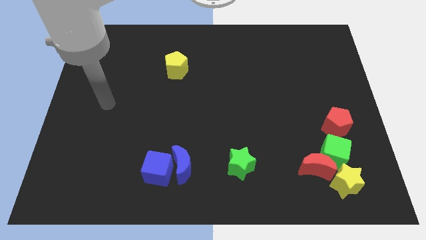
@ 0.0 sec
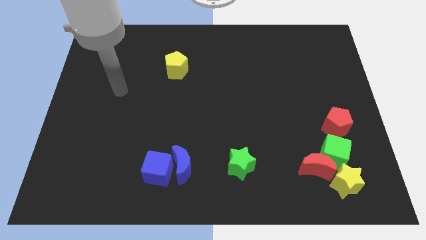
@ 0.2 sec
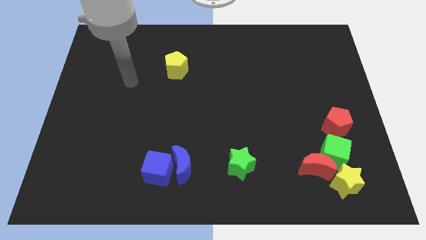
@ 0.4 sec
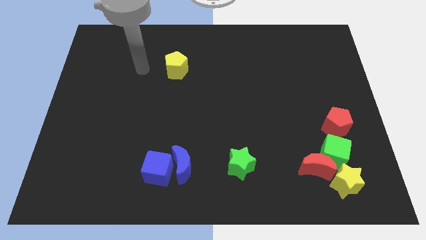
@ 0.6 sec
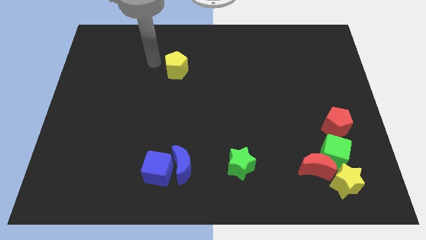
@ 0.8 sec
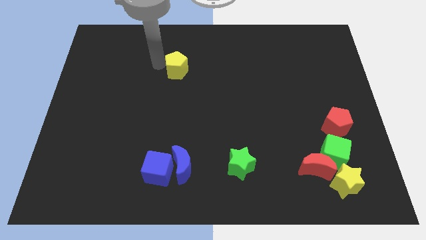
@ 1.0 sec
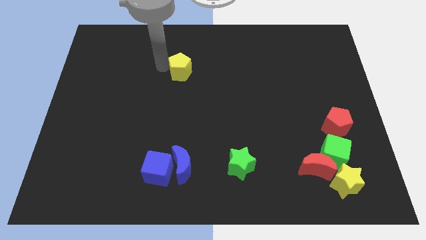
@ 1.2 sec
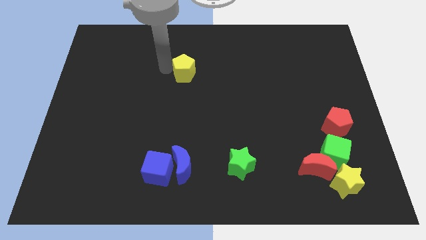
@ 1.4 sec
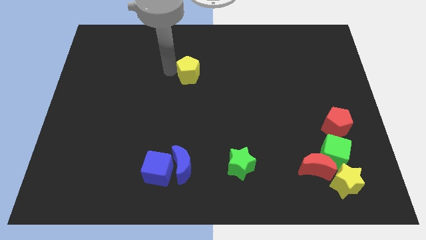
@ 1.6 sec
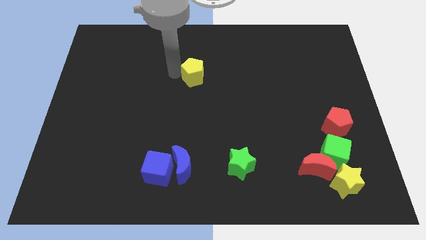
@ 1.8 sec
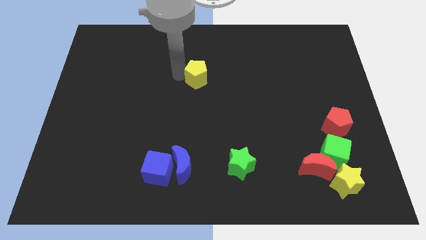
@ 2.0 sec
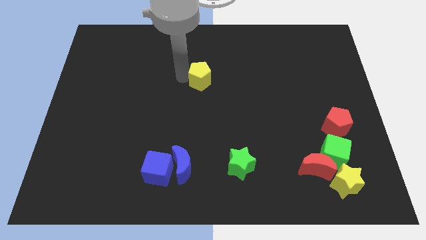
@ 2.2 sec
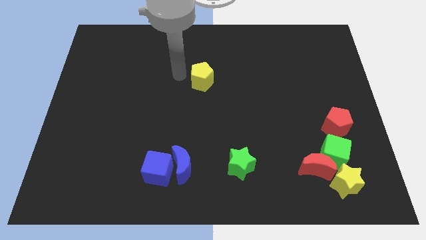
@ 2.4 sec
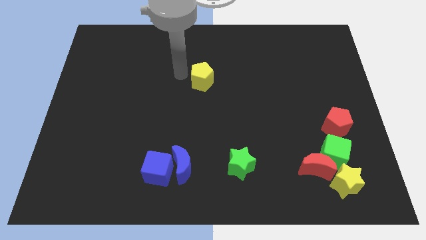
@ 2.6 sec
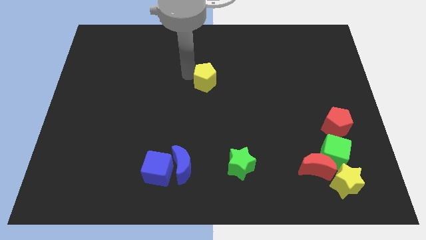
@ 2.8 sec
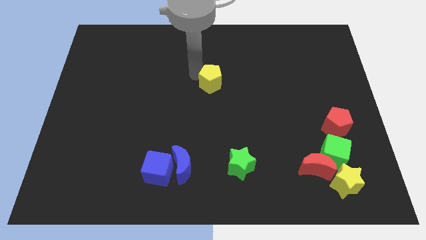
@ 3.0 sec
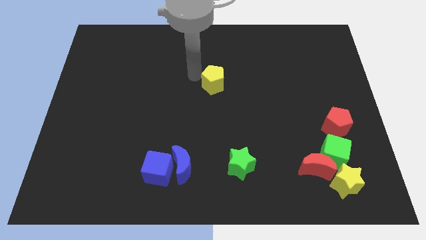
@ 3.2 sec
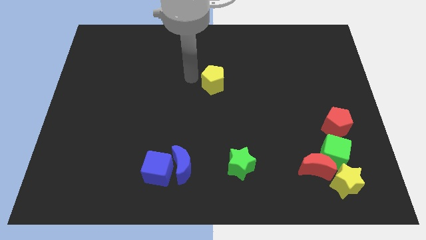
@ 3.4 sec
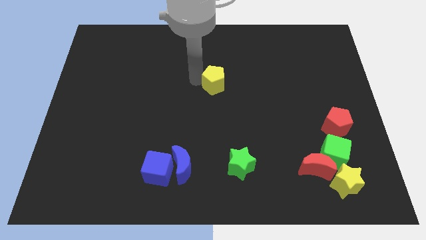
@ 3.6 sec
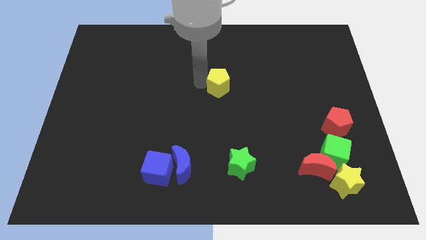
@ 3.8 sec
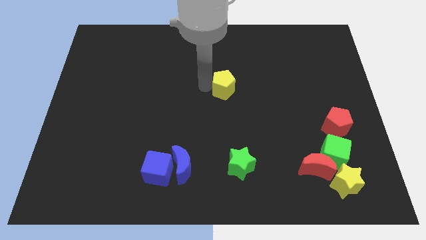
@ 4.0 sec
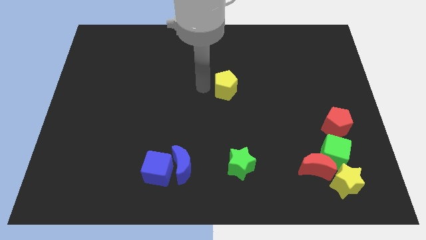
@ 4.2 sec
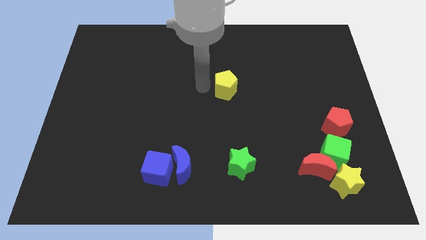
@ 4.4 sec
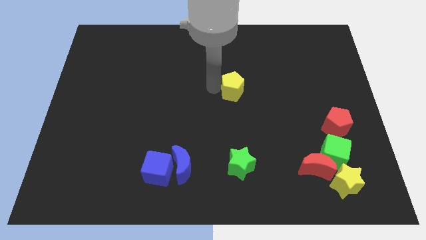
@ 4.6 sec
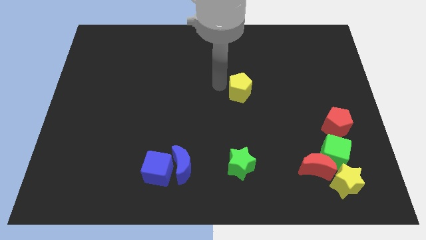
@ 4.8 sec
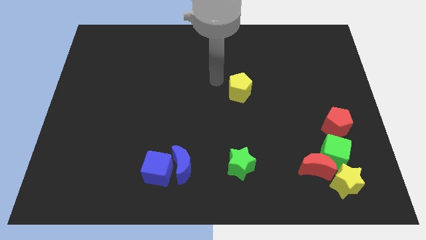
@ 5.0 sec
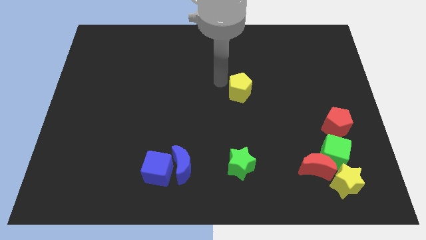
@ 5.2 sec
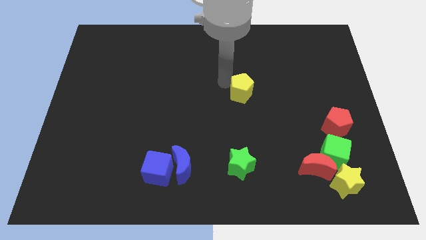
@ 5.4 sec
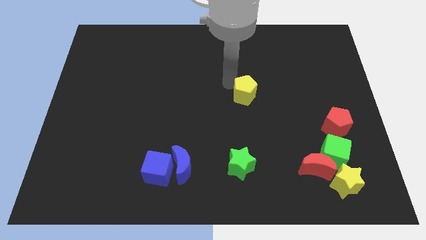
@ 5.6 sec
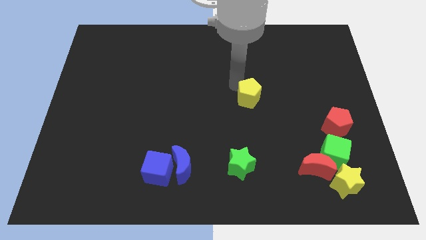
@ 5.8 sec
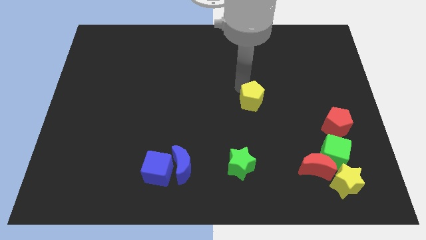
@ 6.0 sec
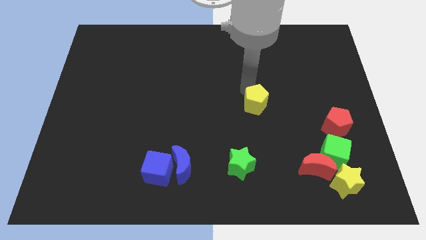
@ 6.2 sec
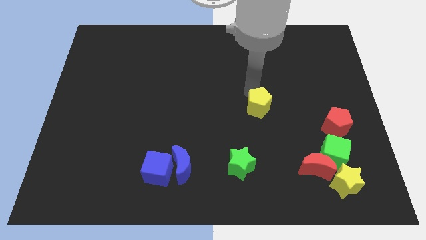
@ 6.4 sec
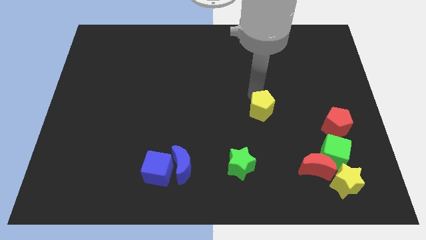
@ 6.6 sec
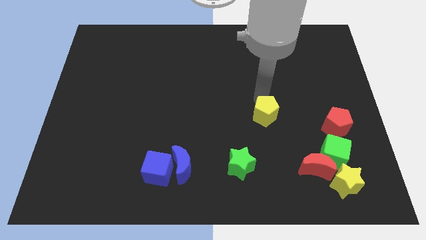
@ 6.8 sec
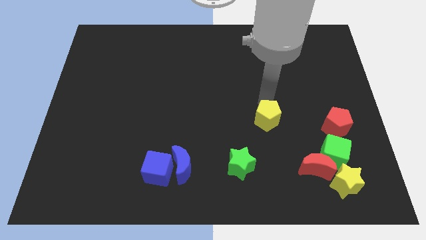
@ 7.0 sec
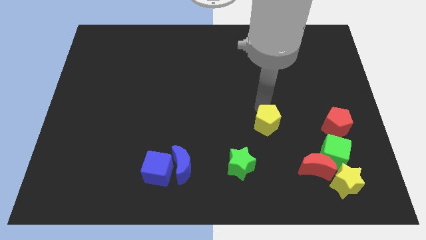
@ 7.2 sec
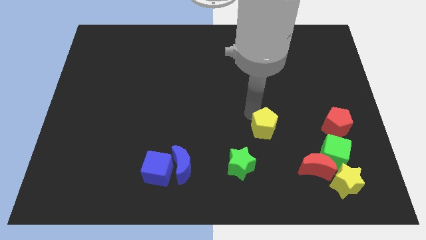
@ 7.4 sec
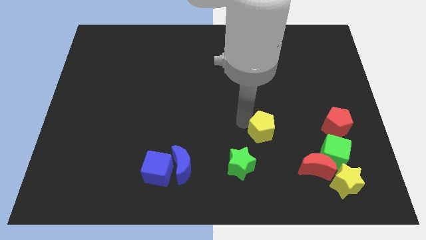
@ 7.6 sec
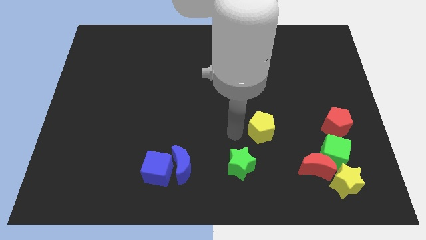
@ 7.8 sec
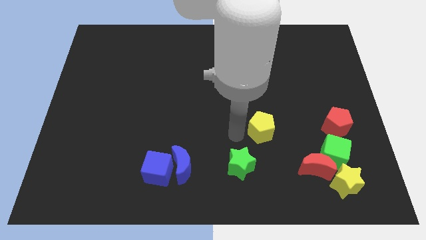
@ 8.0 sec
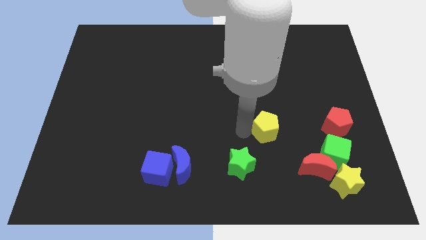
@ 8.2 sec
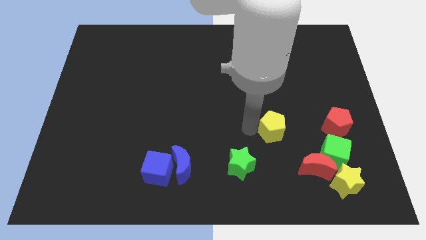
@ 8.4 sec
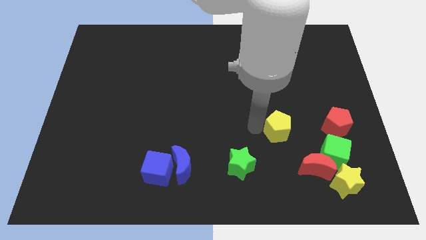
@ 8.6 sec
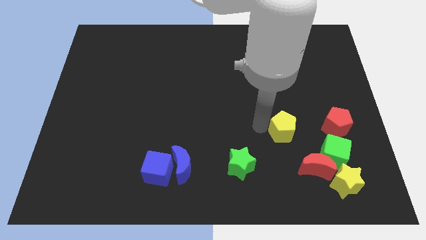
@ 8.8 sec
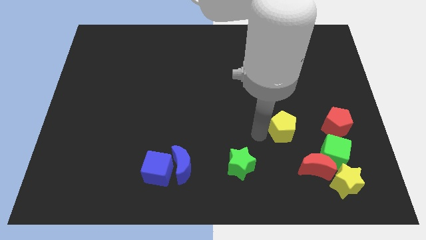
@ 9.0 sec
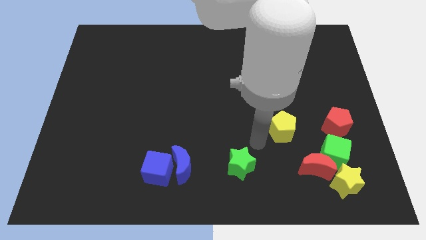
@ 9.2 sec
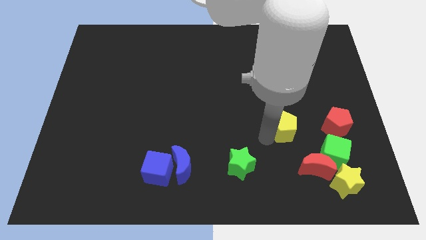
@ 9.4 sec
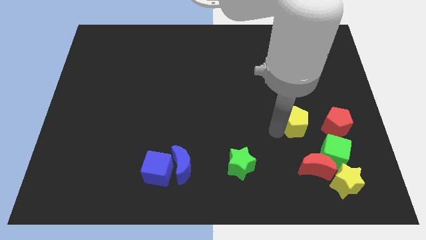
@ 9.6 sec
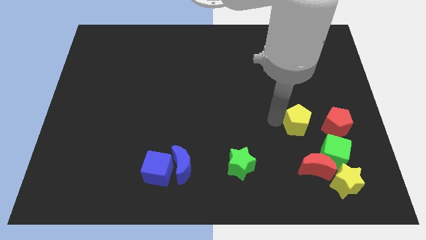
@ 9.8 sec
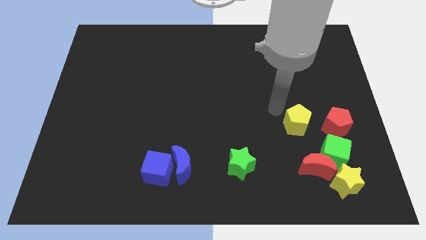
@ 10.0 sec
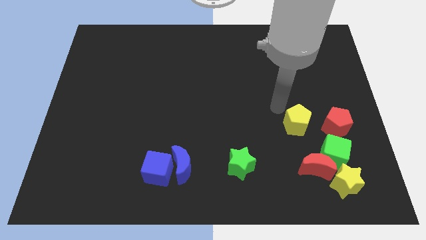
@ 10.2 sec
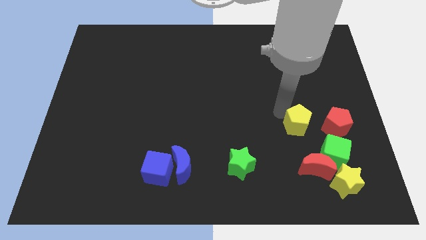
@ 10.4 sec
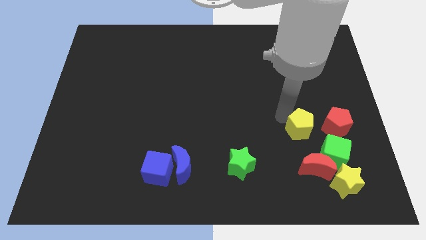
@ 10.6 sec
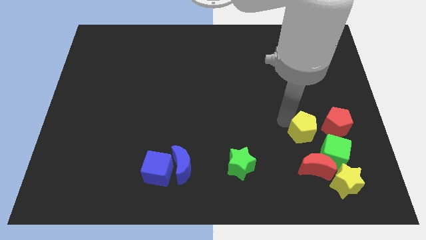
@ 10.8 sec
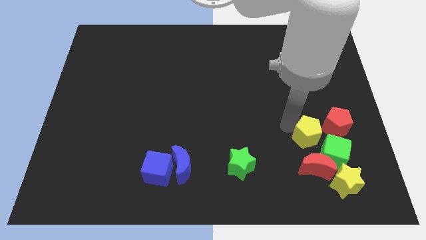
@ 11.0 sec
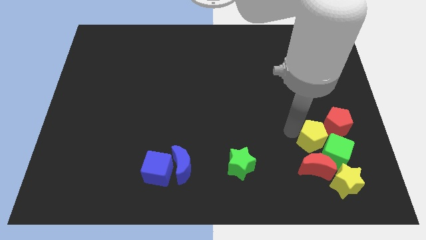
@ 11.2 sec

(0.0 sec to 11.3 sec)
move the yellow pentagon towards the green cube
